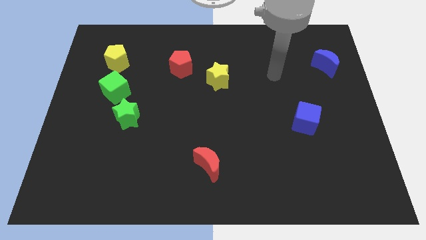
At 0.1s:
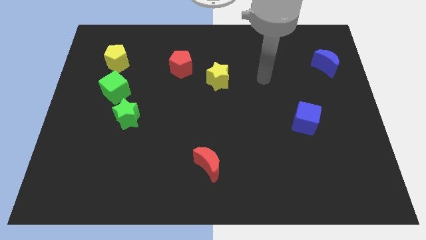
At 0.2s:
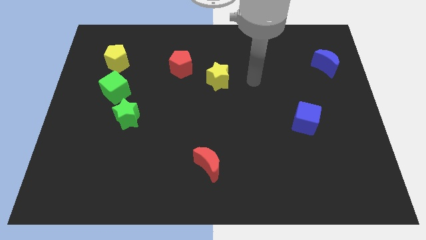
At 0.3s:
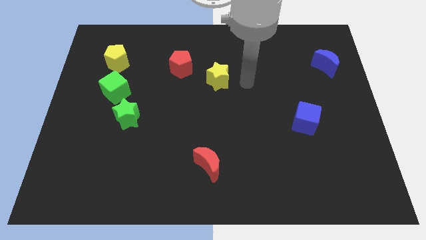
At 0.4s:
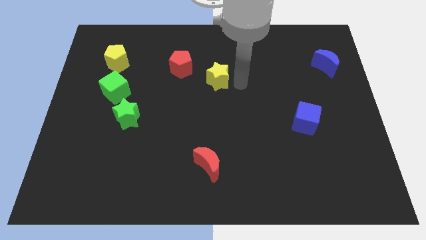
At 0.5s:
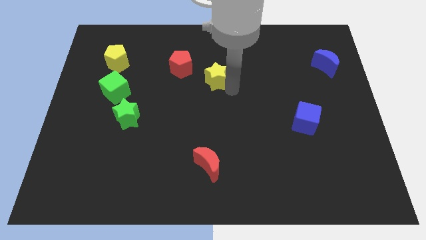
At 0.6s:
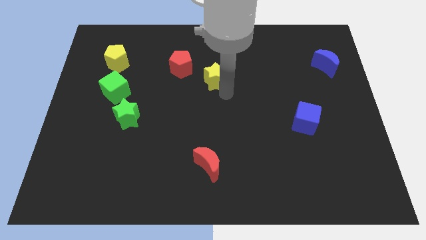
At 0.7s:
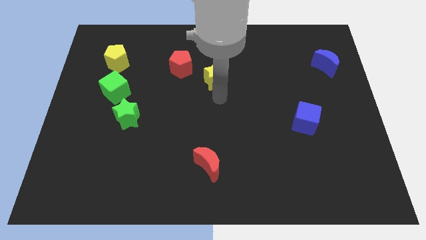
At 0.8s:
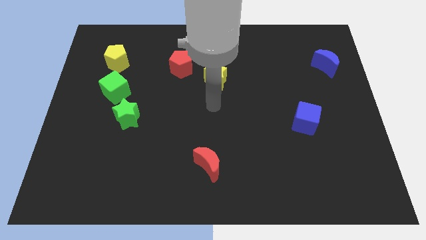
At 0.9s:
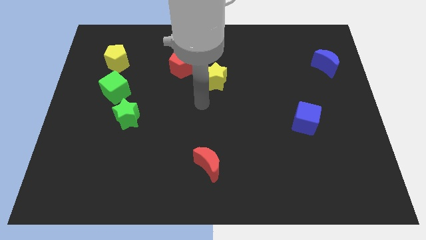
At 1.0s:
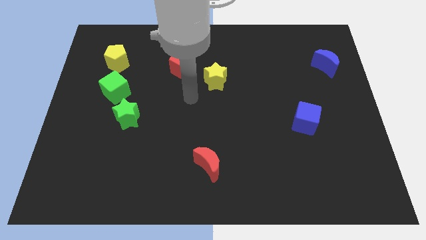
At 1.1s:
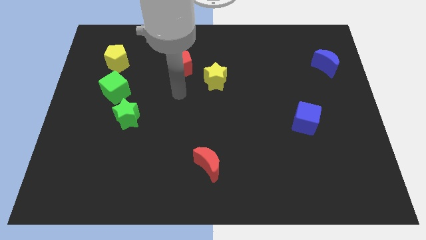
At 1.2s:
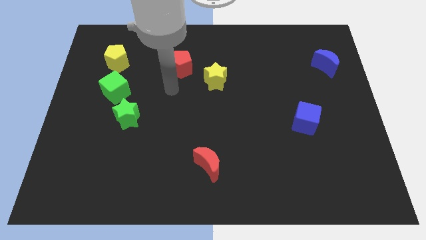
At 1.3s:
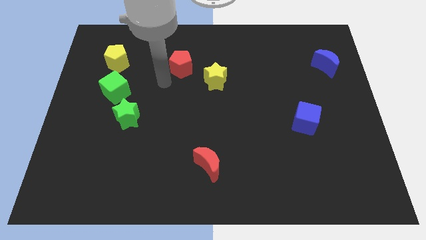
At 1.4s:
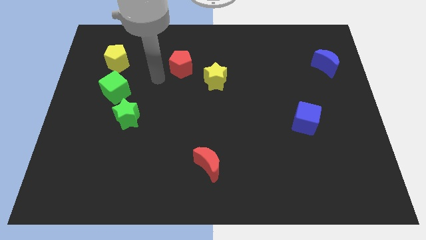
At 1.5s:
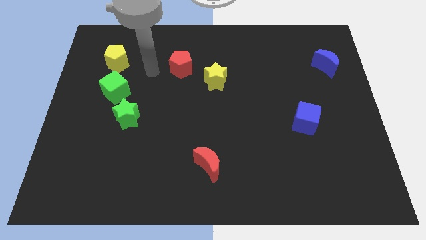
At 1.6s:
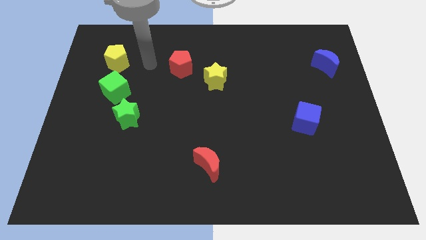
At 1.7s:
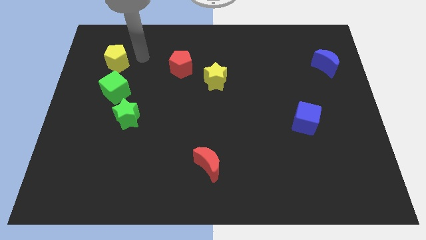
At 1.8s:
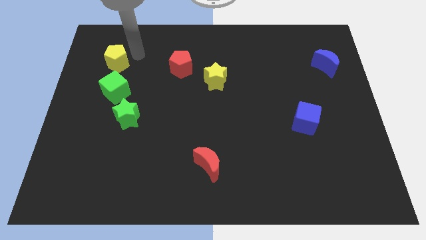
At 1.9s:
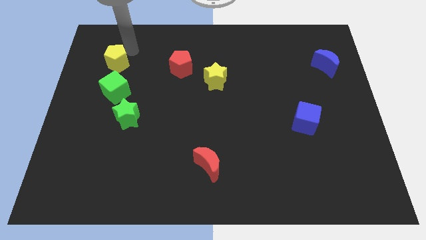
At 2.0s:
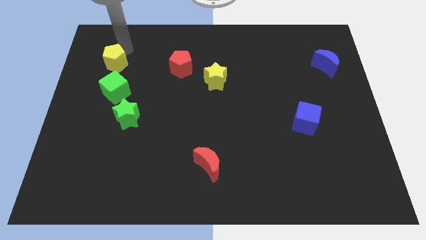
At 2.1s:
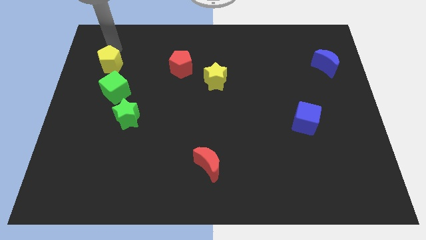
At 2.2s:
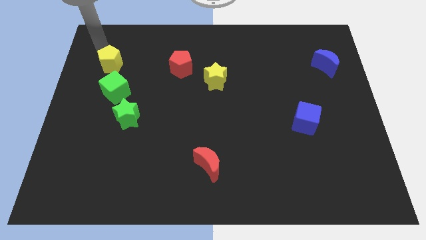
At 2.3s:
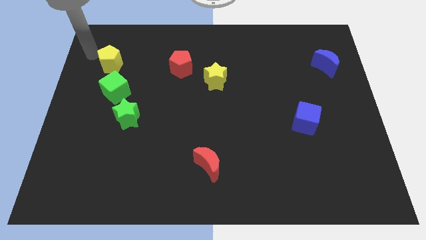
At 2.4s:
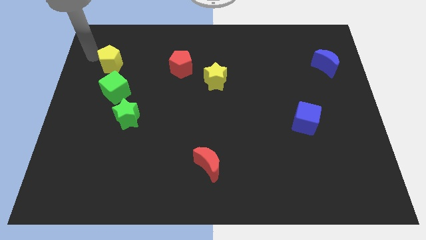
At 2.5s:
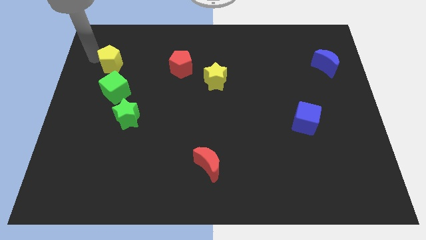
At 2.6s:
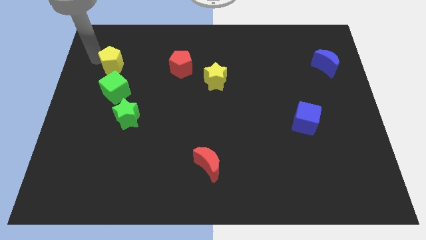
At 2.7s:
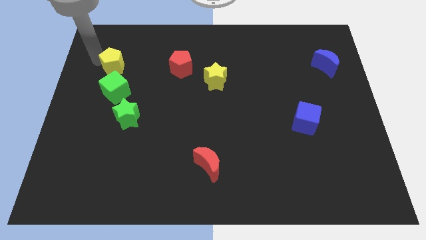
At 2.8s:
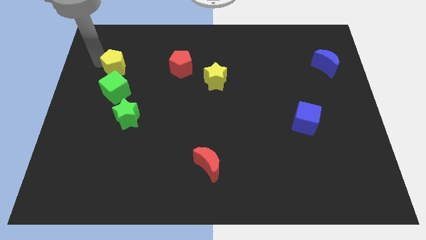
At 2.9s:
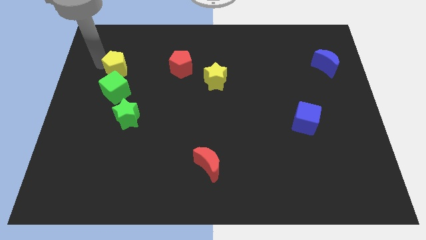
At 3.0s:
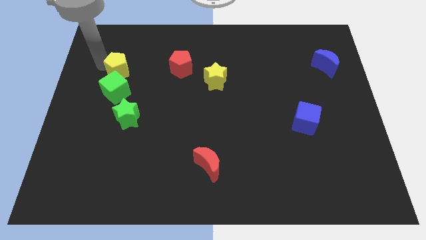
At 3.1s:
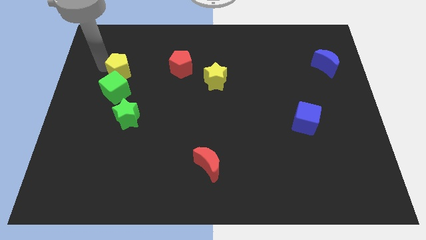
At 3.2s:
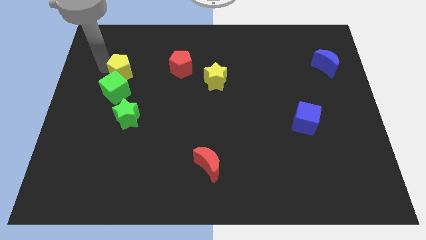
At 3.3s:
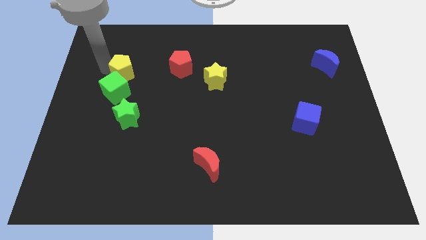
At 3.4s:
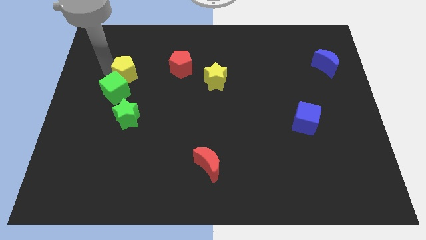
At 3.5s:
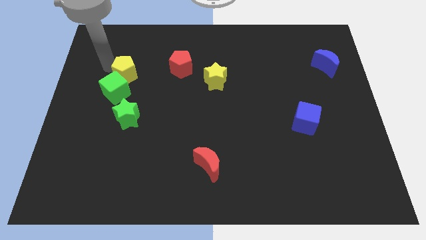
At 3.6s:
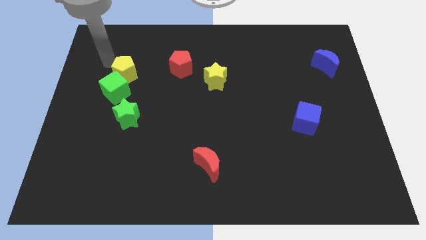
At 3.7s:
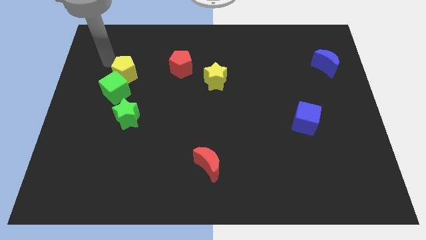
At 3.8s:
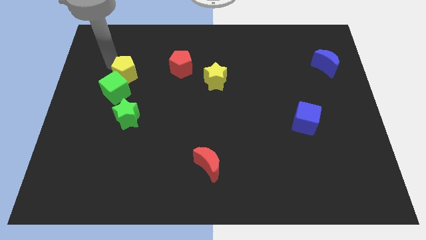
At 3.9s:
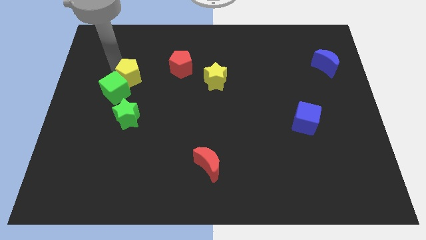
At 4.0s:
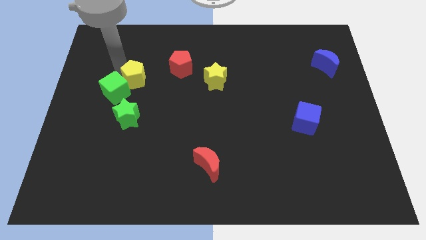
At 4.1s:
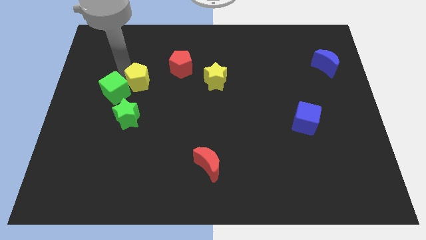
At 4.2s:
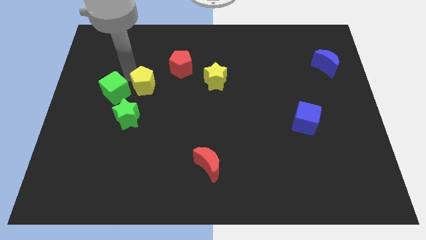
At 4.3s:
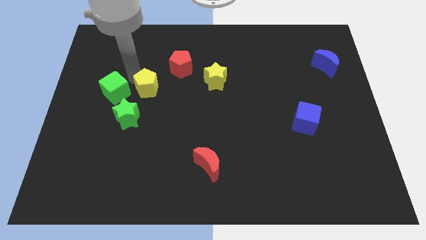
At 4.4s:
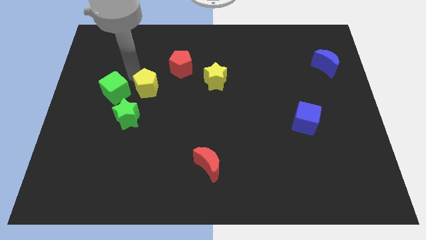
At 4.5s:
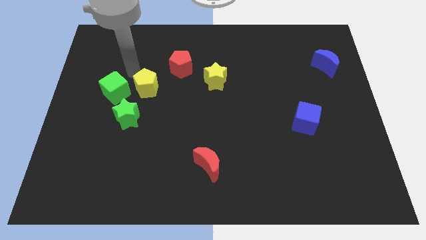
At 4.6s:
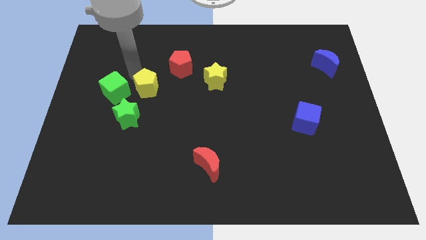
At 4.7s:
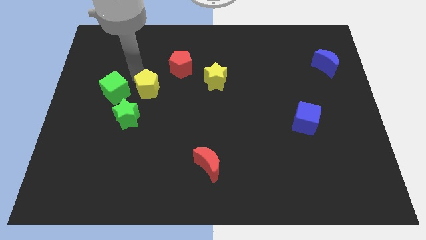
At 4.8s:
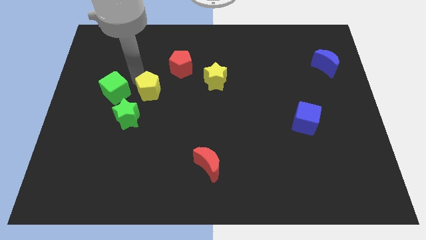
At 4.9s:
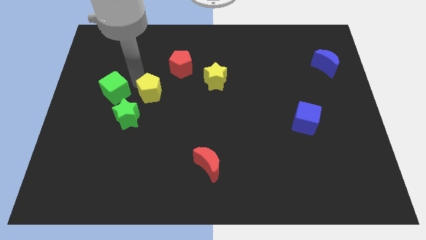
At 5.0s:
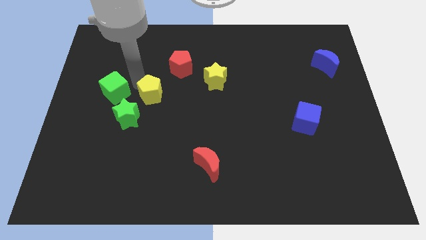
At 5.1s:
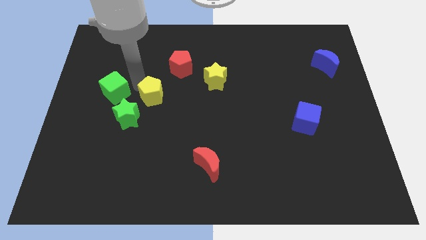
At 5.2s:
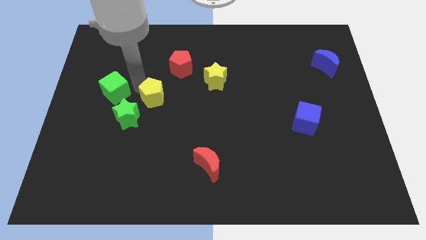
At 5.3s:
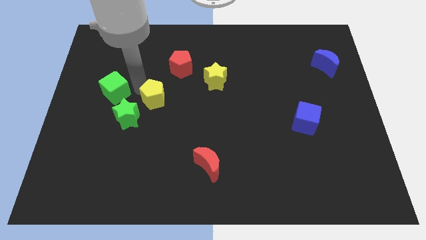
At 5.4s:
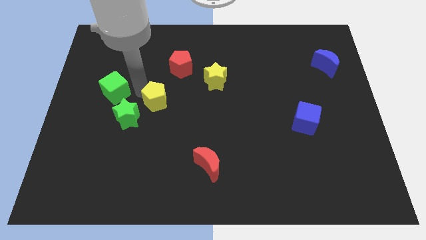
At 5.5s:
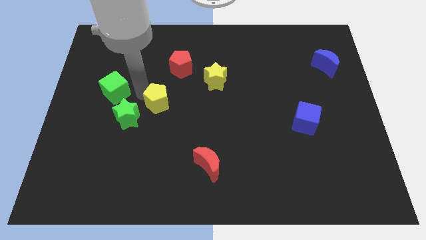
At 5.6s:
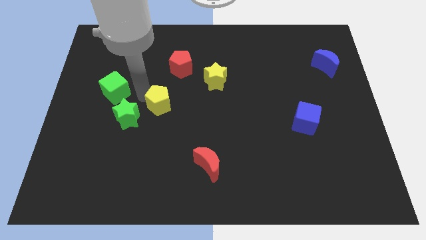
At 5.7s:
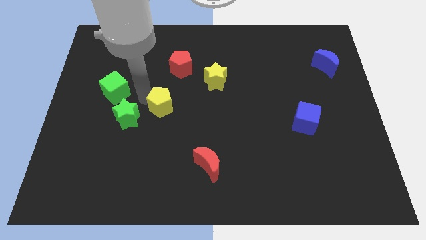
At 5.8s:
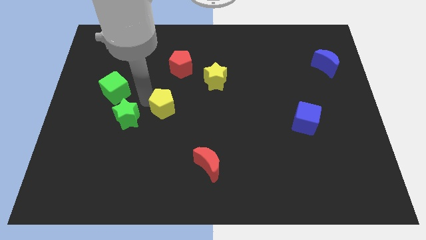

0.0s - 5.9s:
slide the yellow pentagon down and right diagonally

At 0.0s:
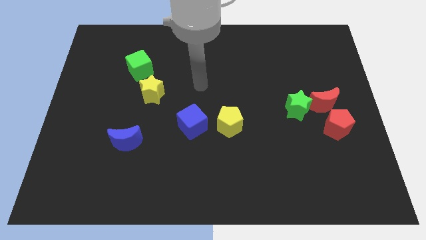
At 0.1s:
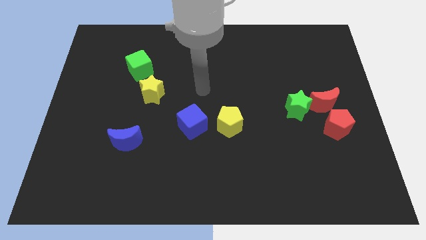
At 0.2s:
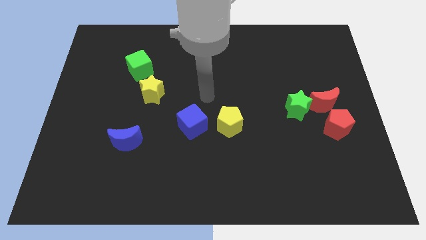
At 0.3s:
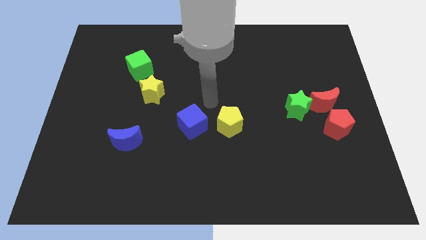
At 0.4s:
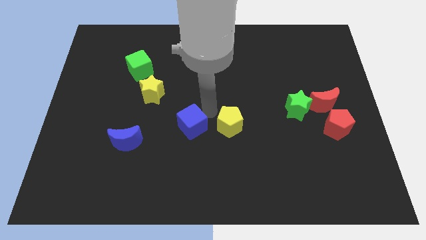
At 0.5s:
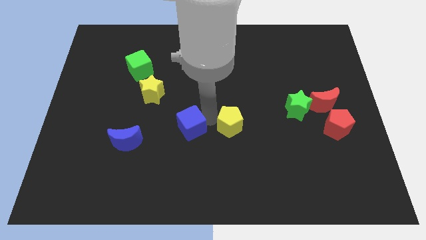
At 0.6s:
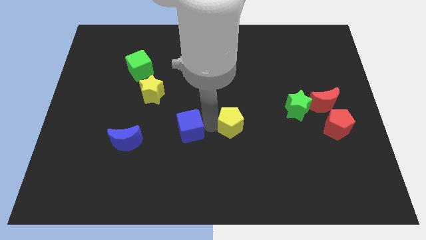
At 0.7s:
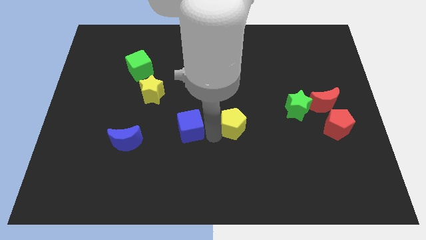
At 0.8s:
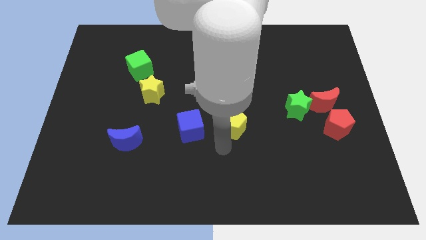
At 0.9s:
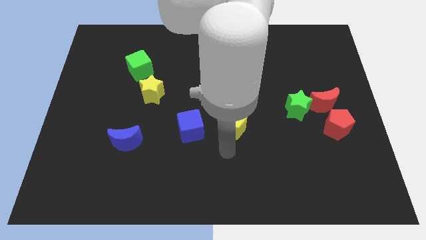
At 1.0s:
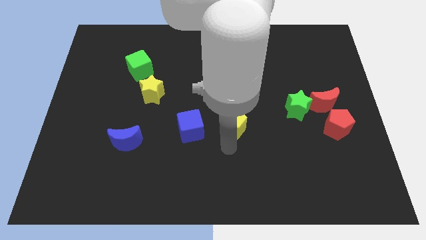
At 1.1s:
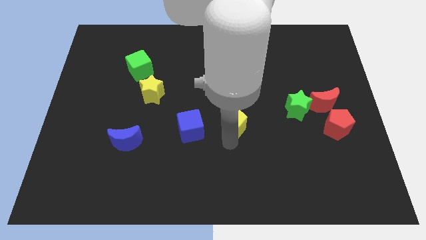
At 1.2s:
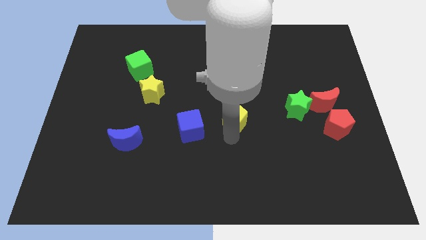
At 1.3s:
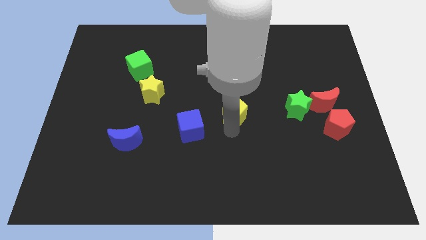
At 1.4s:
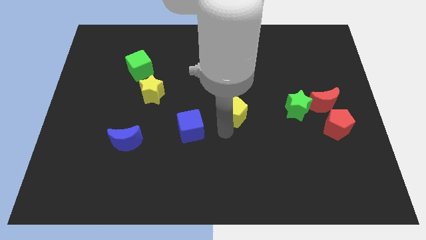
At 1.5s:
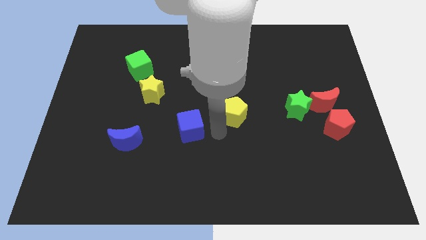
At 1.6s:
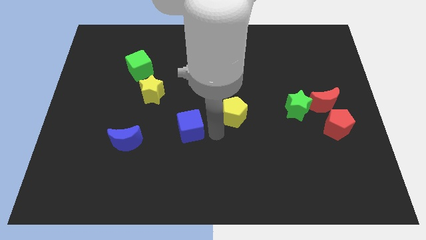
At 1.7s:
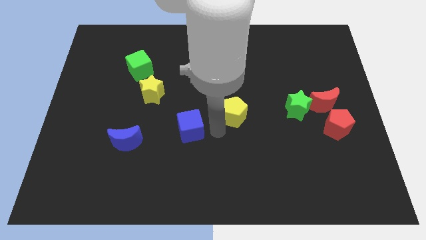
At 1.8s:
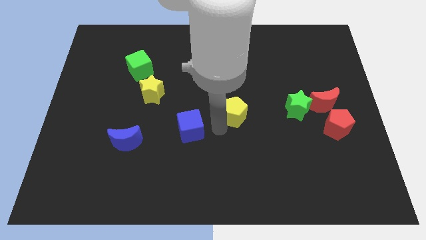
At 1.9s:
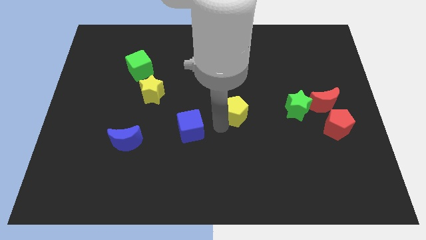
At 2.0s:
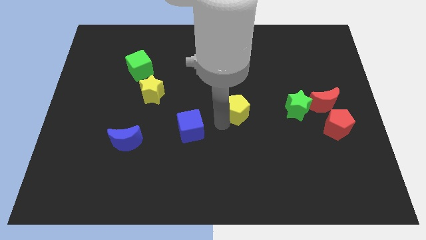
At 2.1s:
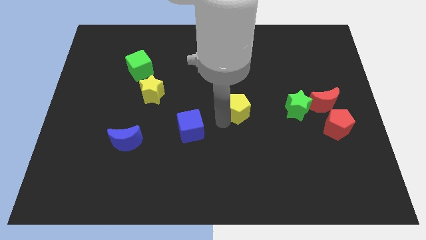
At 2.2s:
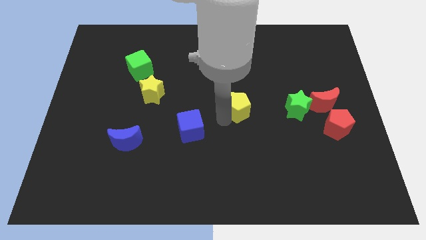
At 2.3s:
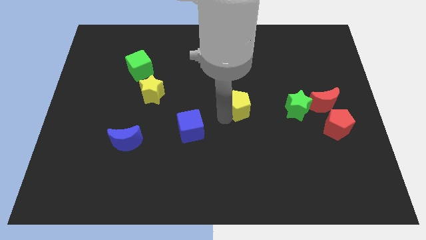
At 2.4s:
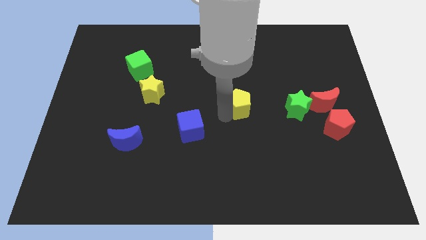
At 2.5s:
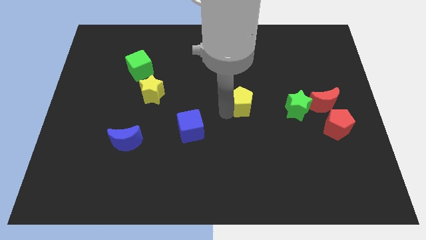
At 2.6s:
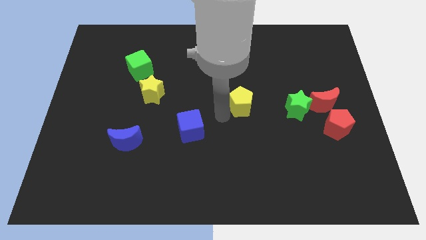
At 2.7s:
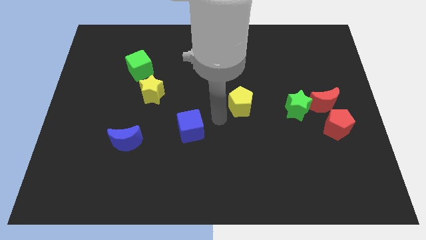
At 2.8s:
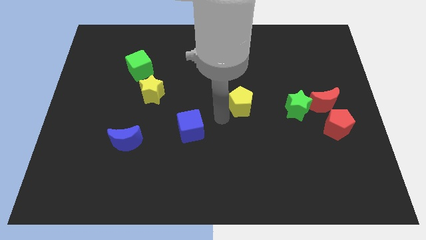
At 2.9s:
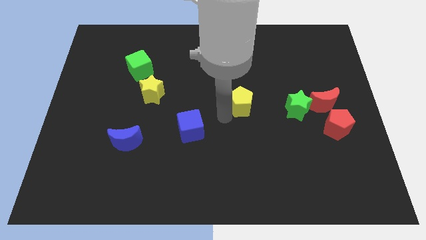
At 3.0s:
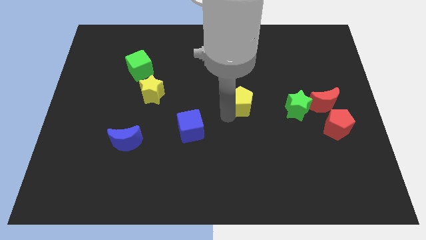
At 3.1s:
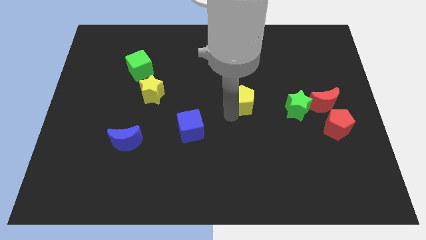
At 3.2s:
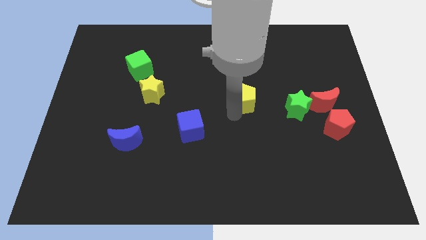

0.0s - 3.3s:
move the yellow pentagon slightly diagonally up and to the right
